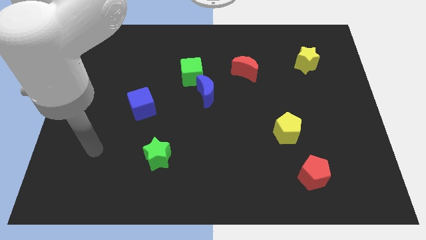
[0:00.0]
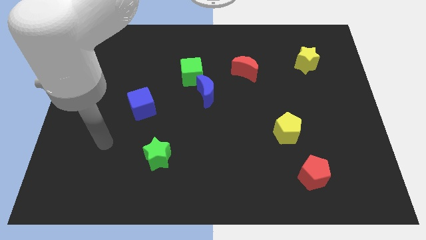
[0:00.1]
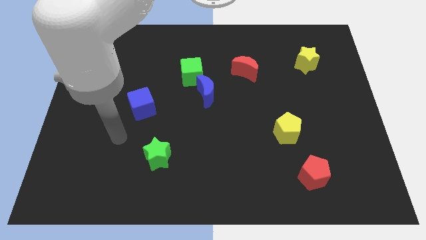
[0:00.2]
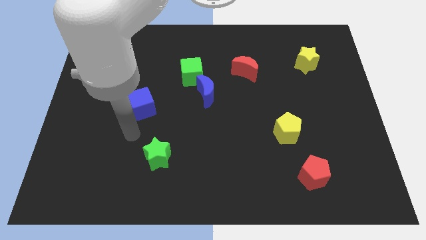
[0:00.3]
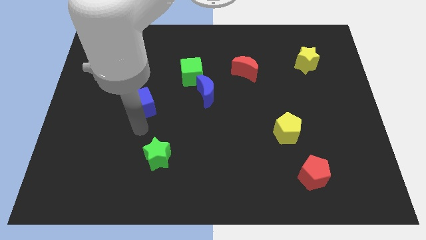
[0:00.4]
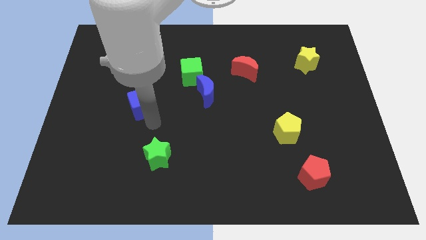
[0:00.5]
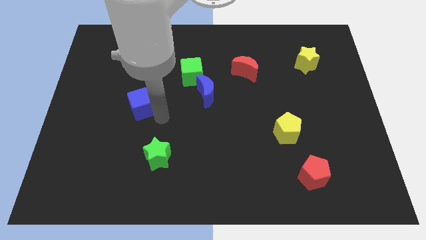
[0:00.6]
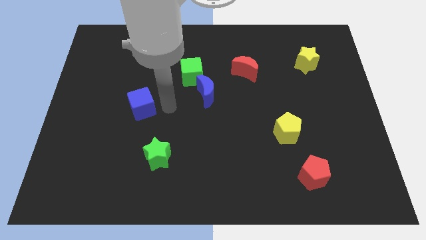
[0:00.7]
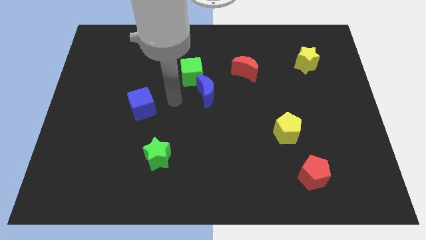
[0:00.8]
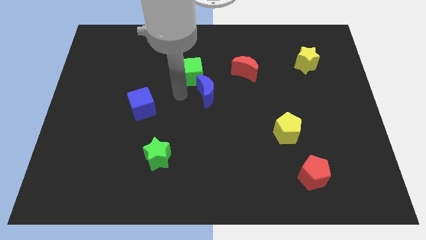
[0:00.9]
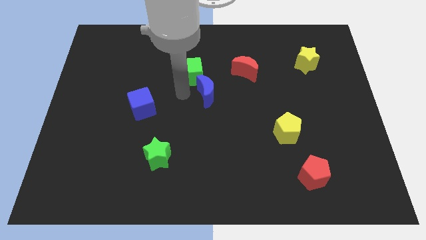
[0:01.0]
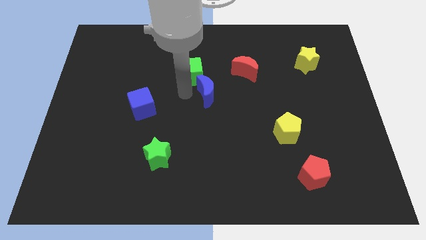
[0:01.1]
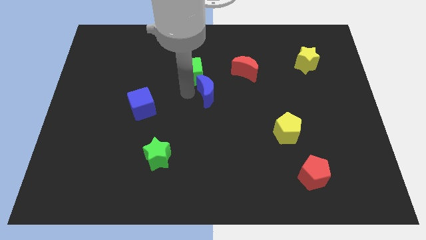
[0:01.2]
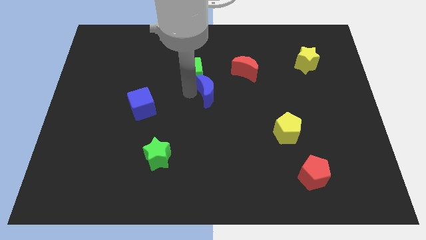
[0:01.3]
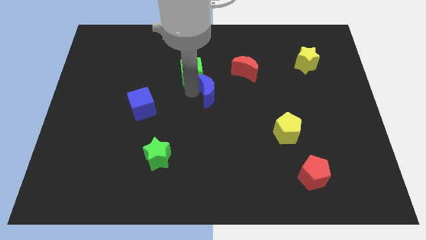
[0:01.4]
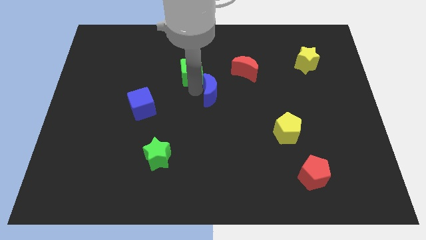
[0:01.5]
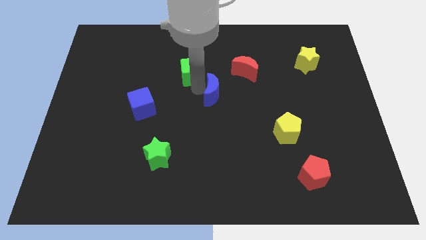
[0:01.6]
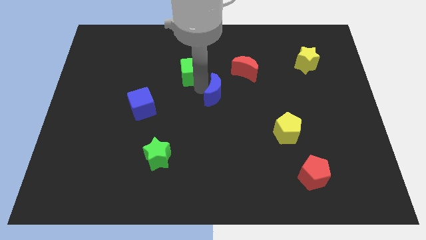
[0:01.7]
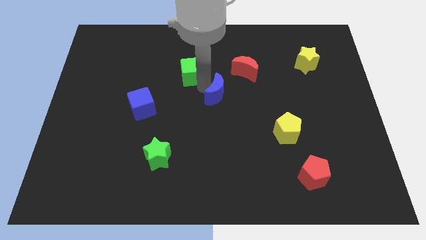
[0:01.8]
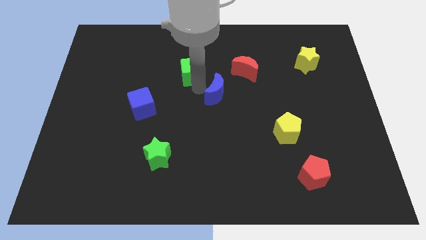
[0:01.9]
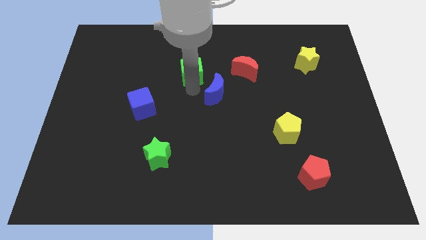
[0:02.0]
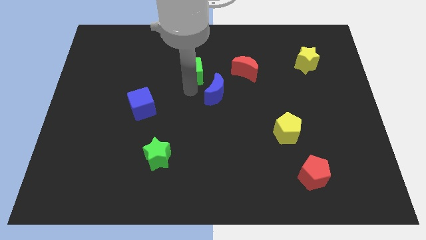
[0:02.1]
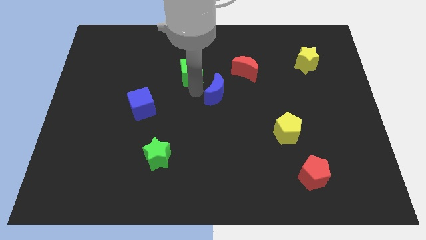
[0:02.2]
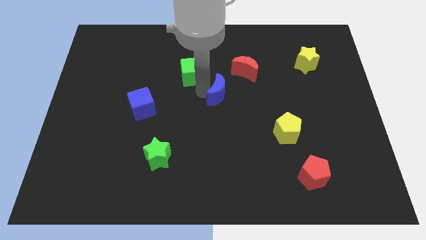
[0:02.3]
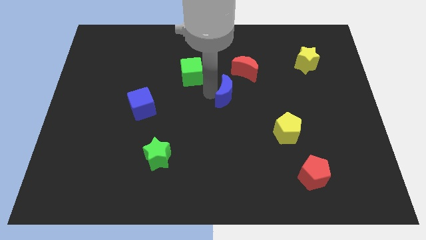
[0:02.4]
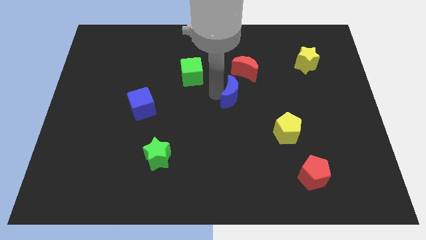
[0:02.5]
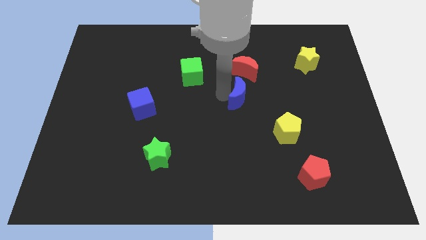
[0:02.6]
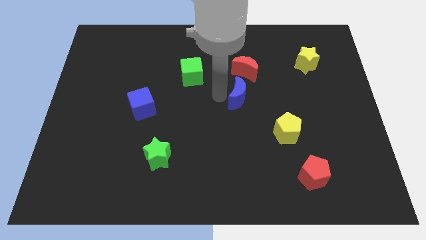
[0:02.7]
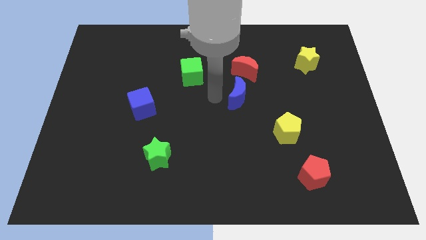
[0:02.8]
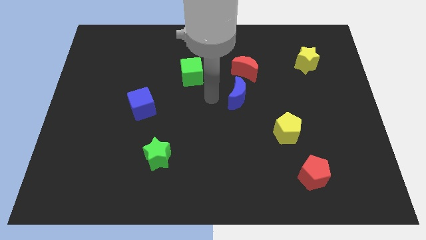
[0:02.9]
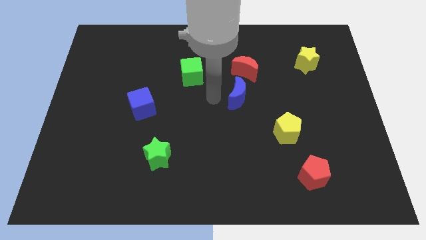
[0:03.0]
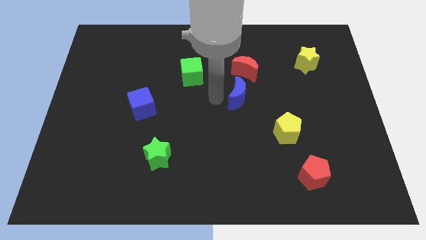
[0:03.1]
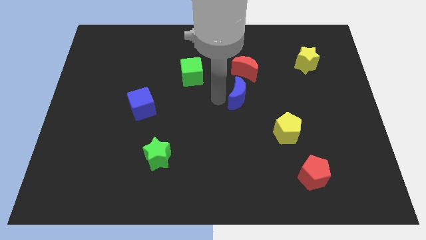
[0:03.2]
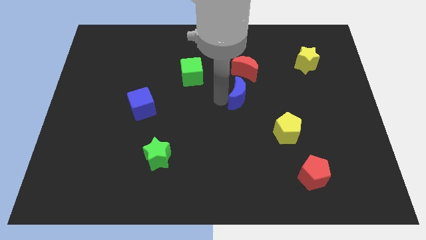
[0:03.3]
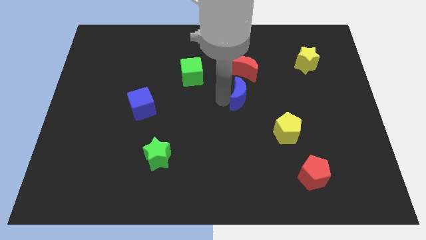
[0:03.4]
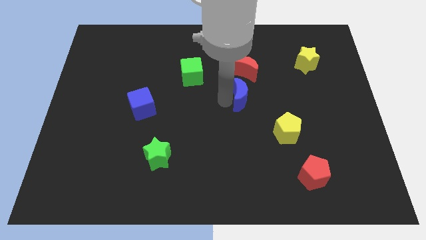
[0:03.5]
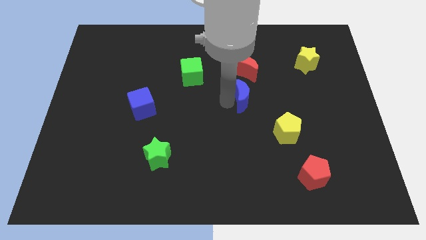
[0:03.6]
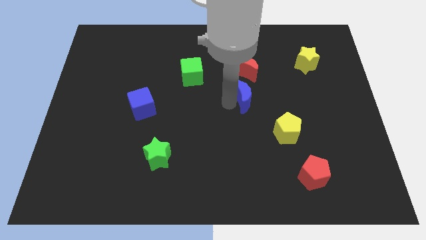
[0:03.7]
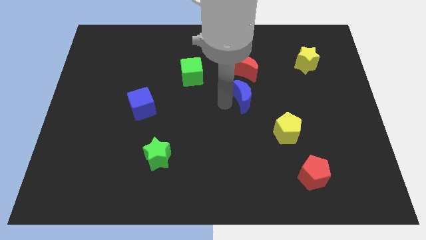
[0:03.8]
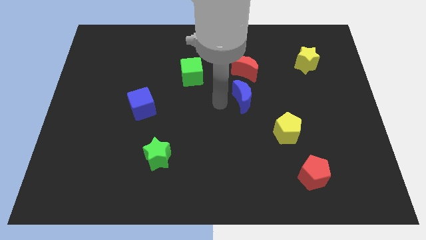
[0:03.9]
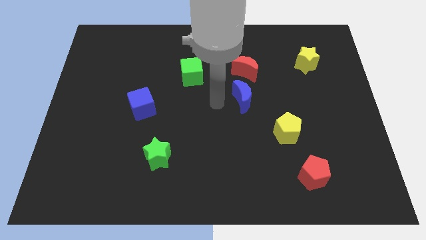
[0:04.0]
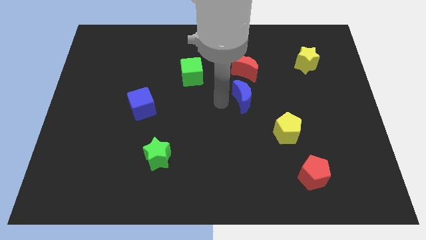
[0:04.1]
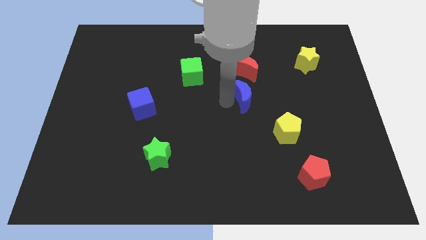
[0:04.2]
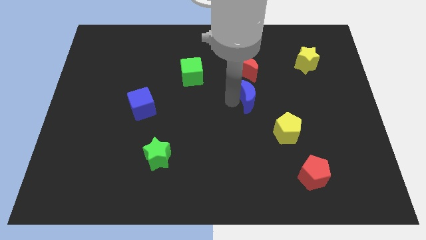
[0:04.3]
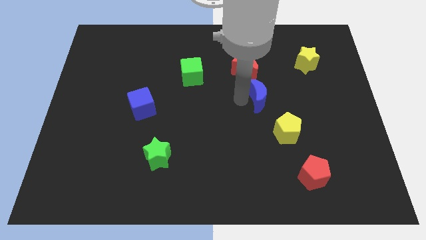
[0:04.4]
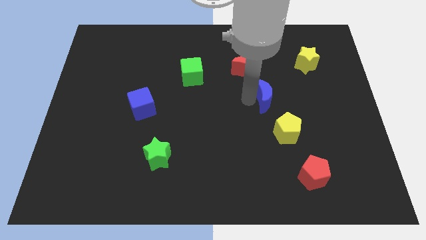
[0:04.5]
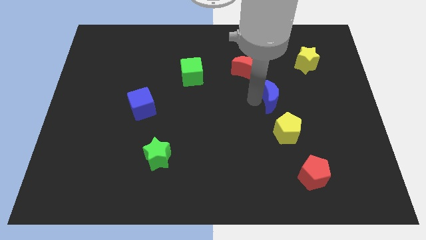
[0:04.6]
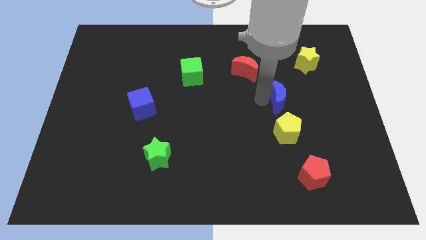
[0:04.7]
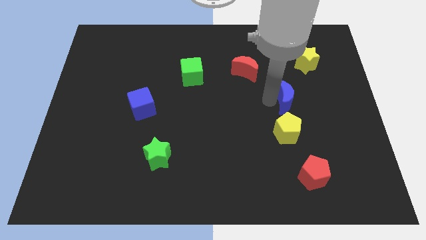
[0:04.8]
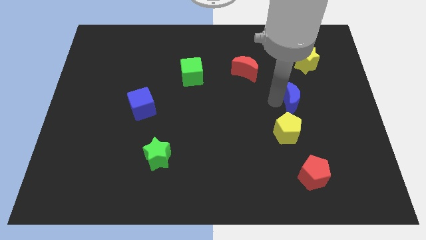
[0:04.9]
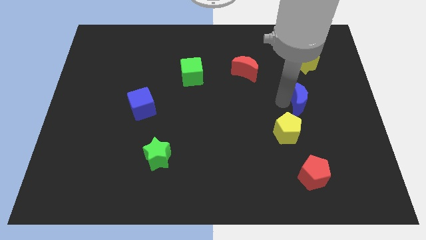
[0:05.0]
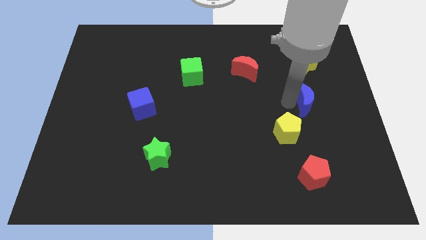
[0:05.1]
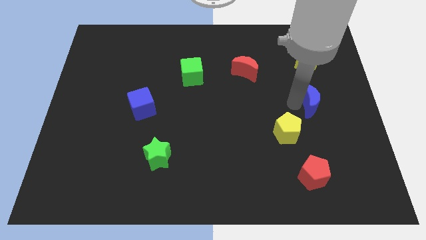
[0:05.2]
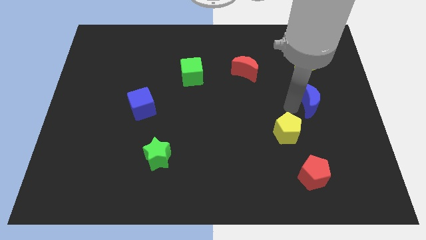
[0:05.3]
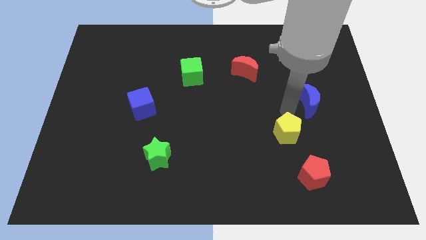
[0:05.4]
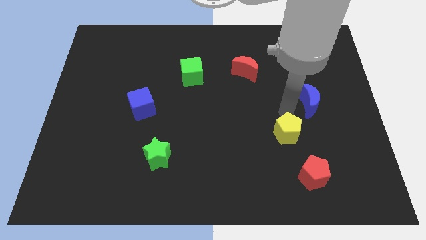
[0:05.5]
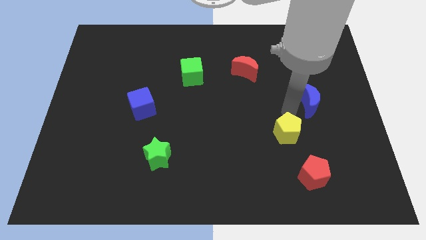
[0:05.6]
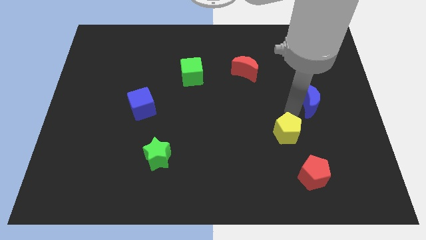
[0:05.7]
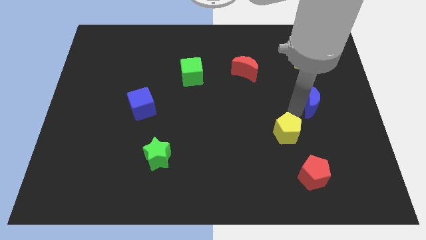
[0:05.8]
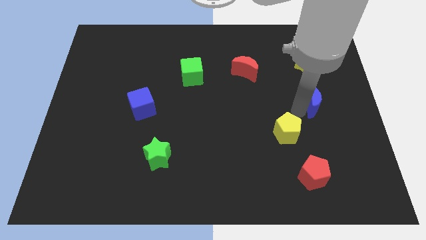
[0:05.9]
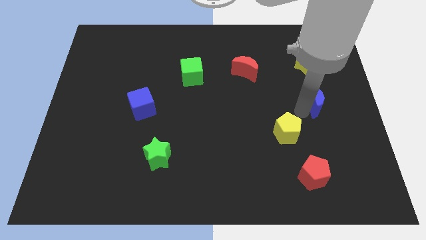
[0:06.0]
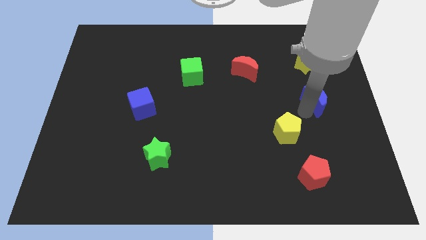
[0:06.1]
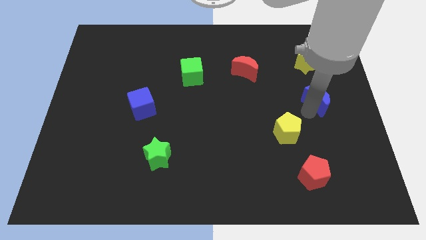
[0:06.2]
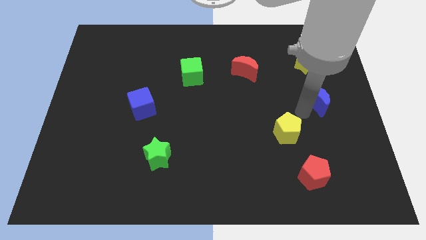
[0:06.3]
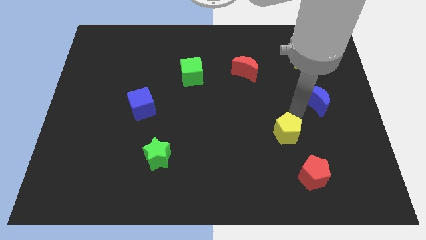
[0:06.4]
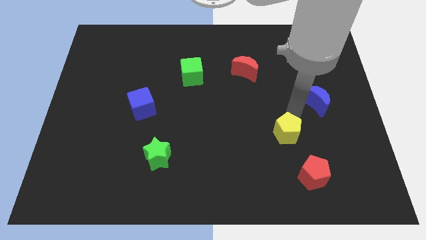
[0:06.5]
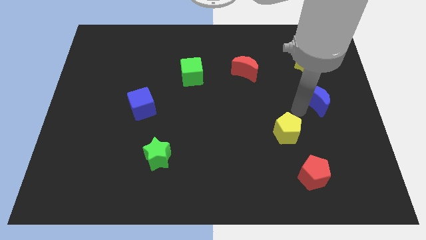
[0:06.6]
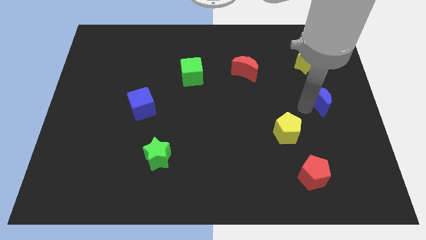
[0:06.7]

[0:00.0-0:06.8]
push the blue moon to the right side of the board
